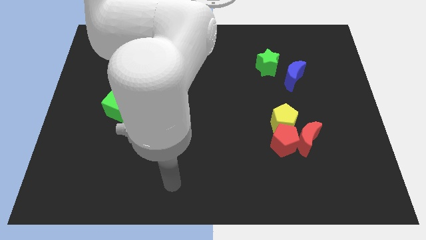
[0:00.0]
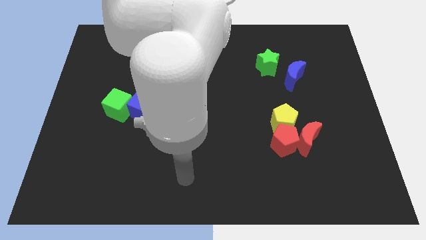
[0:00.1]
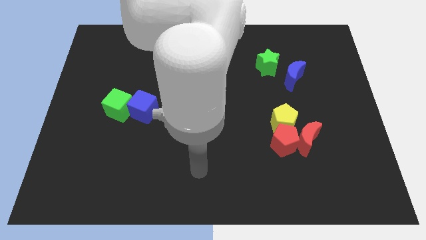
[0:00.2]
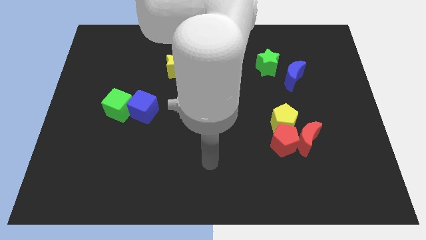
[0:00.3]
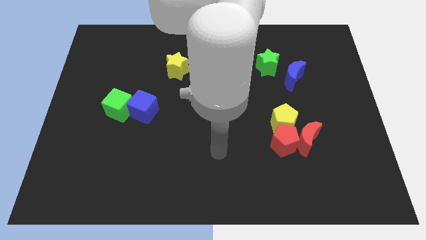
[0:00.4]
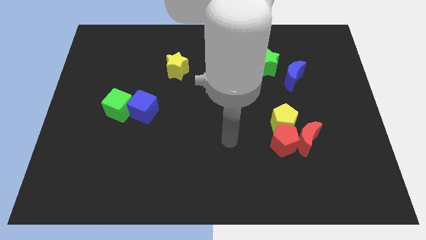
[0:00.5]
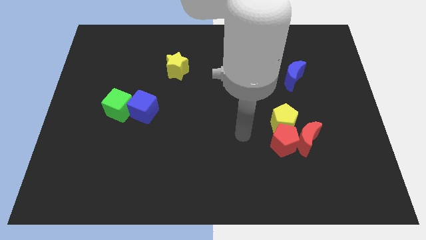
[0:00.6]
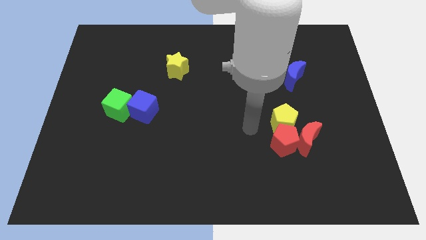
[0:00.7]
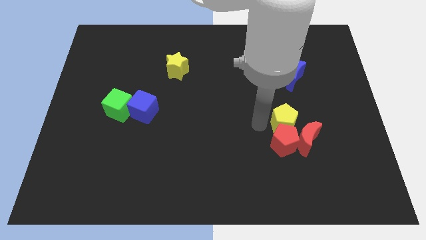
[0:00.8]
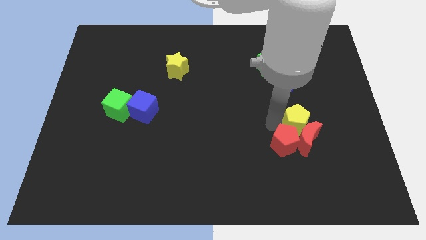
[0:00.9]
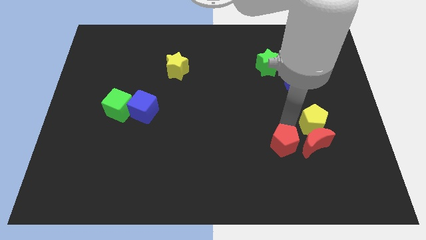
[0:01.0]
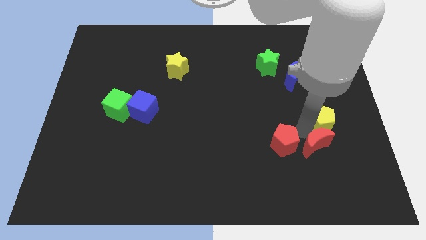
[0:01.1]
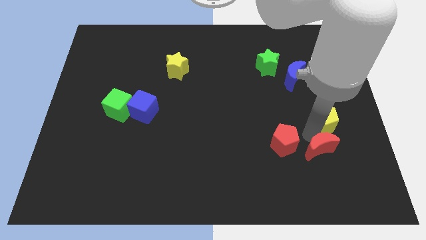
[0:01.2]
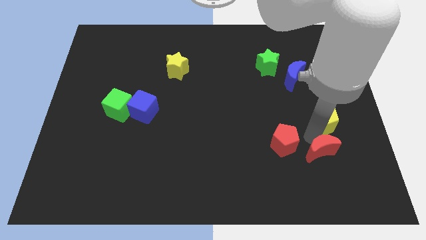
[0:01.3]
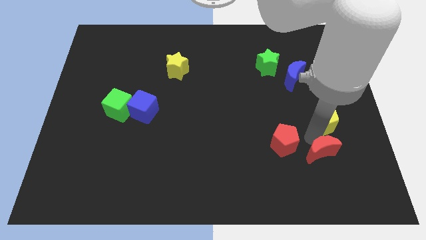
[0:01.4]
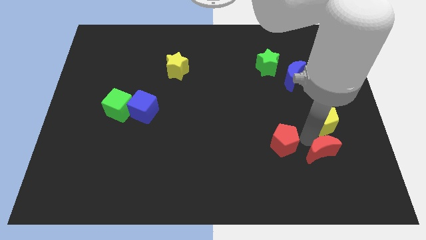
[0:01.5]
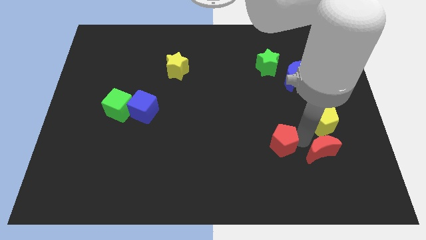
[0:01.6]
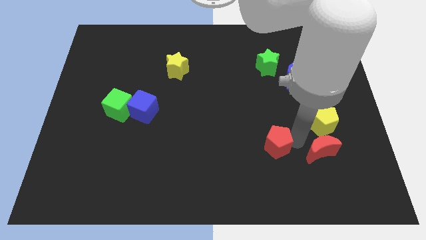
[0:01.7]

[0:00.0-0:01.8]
move the red pentagon away from the red moon and yellow pentagon

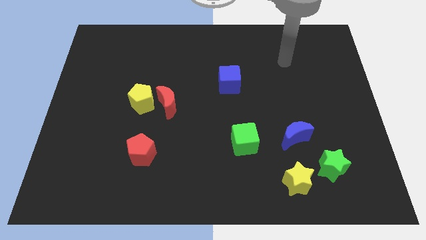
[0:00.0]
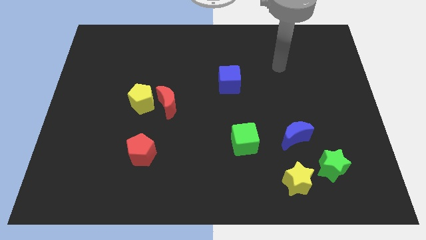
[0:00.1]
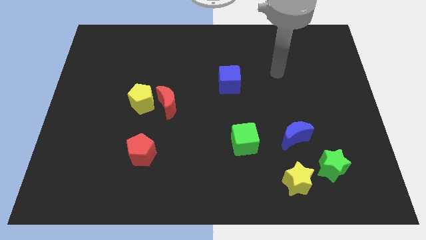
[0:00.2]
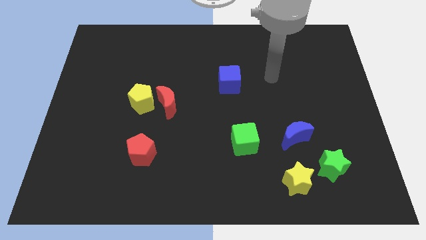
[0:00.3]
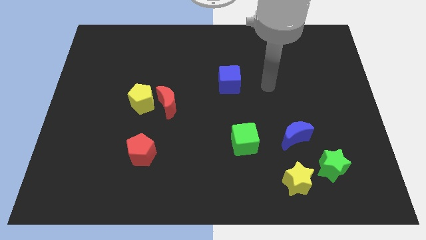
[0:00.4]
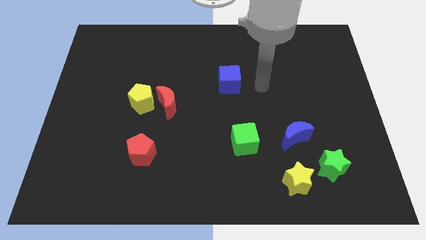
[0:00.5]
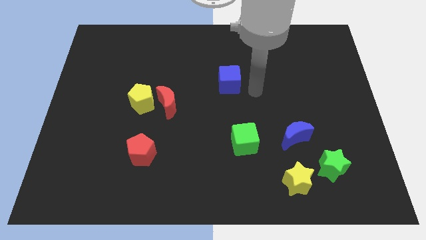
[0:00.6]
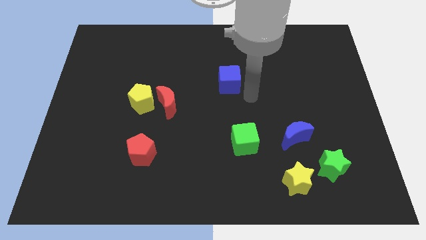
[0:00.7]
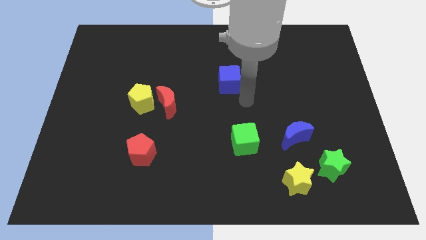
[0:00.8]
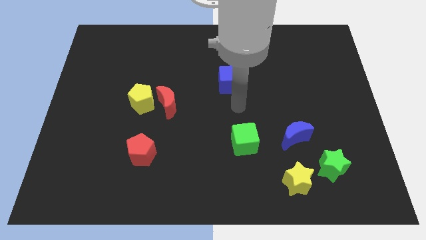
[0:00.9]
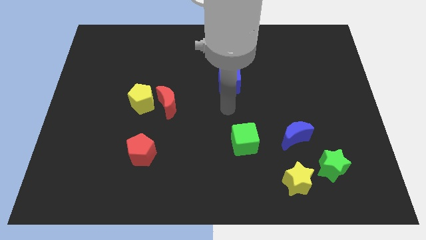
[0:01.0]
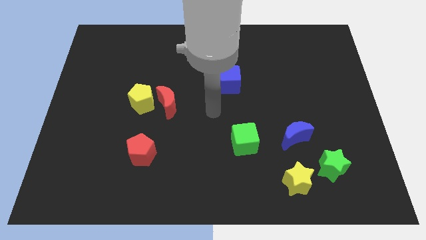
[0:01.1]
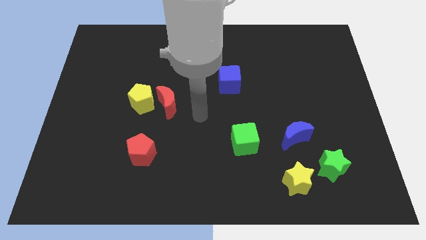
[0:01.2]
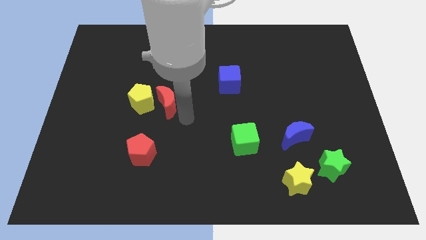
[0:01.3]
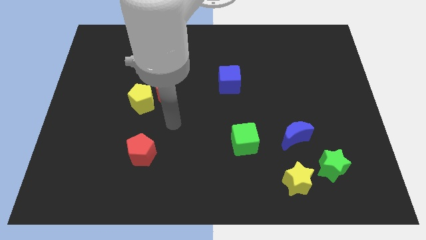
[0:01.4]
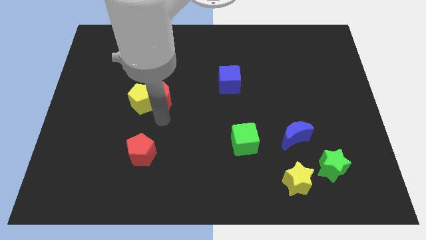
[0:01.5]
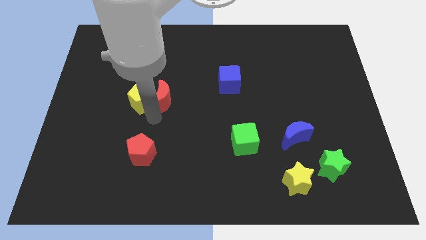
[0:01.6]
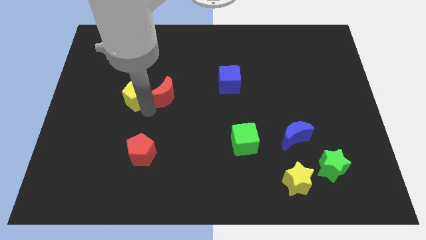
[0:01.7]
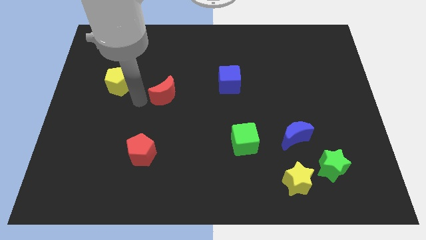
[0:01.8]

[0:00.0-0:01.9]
pull the red moon apart from the yellow pentagon

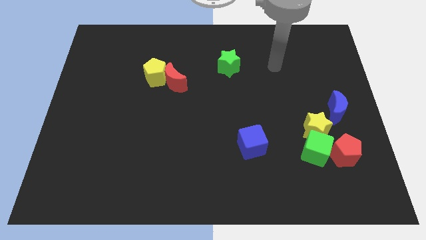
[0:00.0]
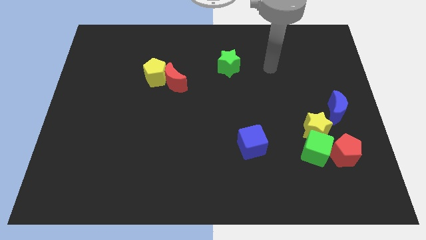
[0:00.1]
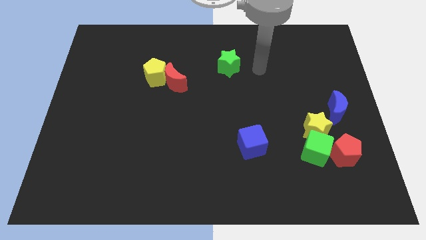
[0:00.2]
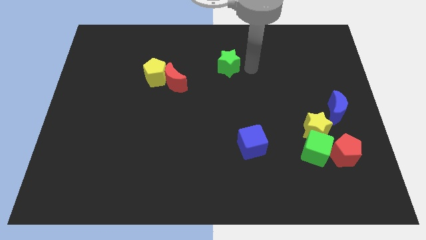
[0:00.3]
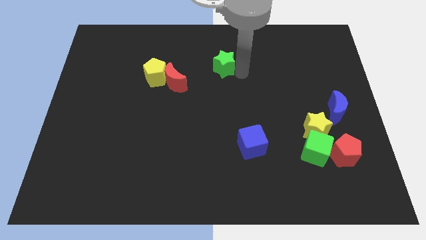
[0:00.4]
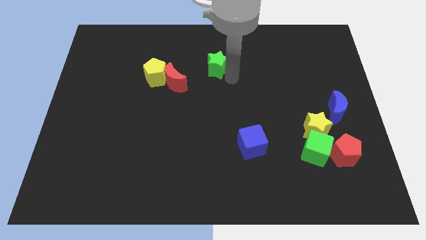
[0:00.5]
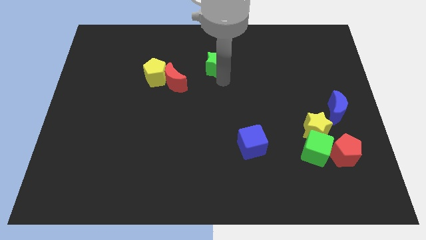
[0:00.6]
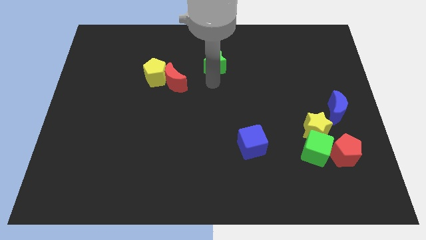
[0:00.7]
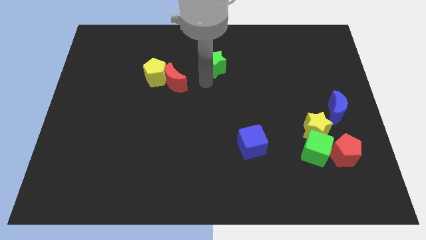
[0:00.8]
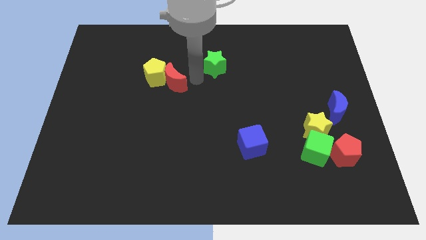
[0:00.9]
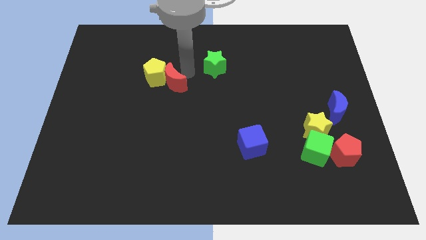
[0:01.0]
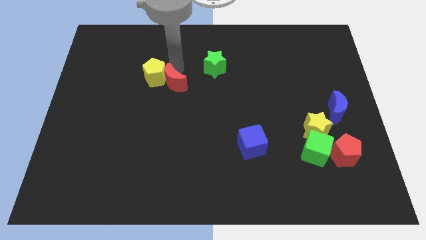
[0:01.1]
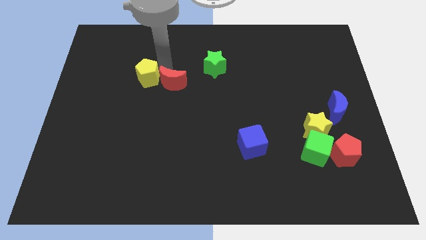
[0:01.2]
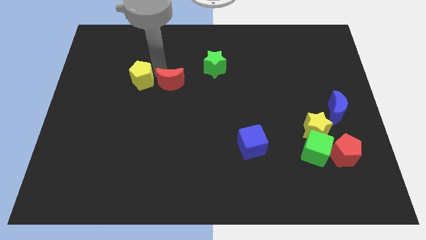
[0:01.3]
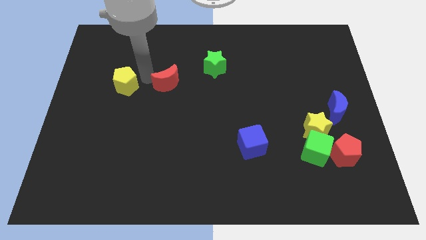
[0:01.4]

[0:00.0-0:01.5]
separate the red moon from the yellow pentagon

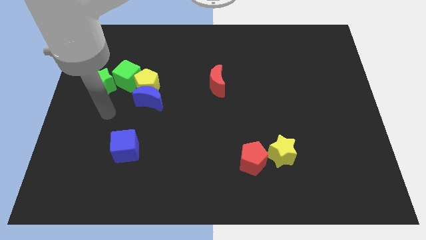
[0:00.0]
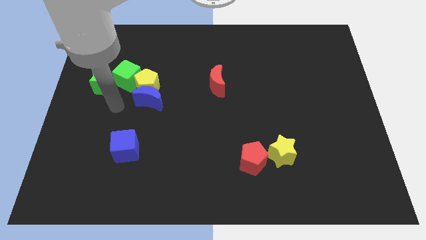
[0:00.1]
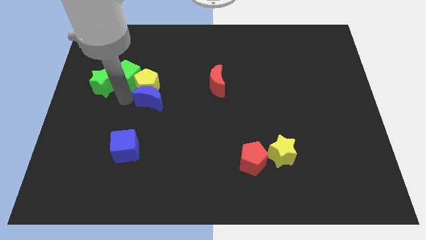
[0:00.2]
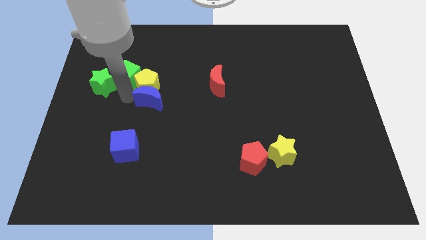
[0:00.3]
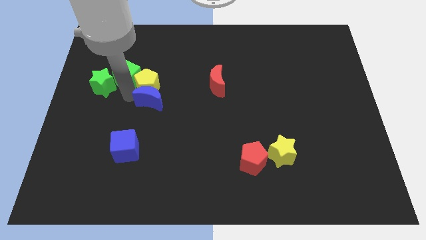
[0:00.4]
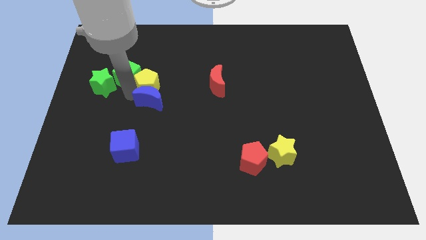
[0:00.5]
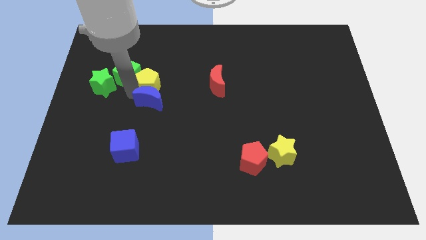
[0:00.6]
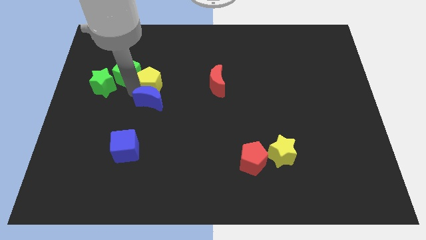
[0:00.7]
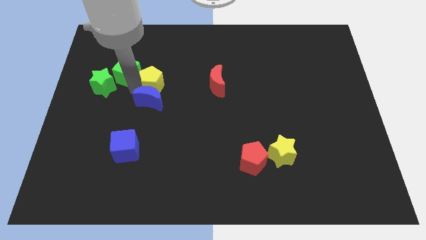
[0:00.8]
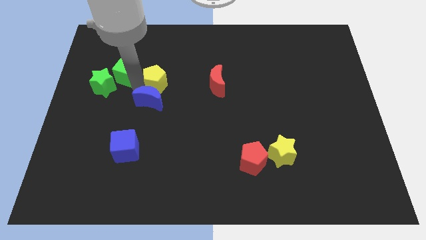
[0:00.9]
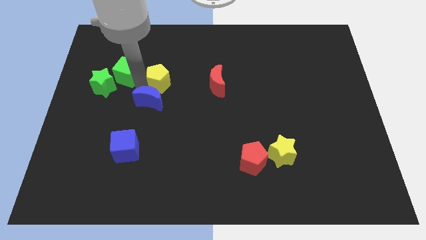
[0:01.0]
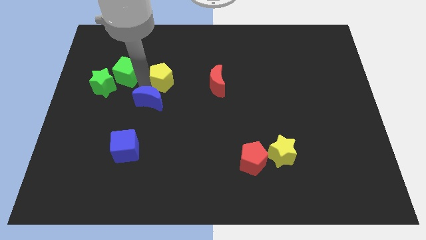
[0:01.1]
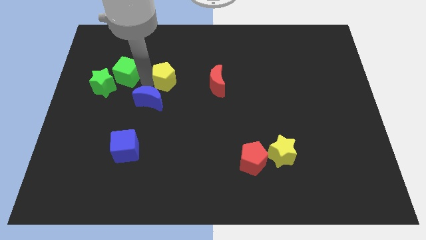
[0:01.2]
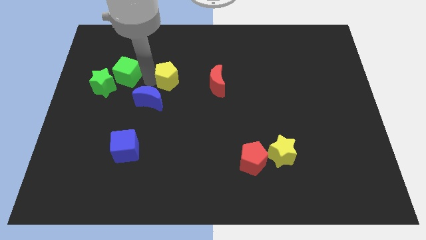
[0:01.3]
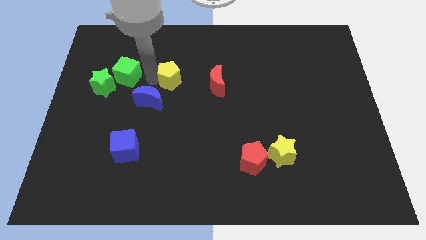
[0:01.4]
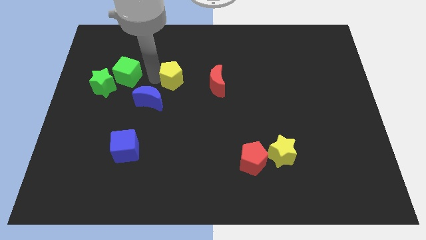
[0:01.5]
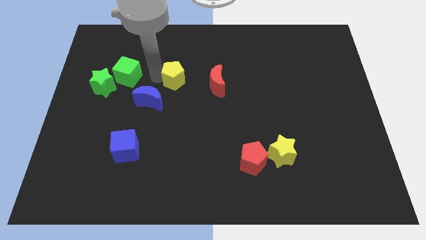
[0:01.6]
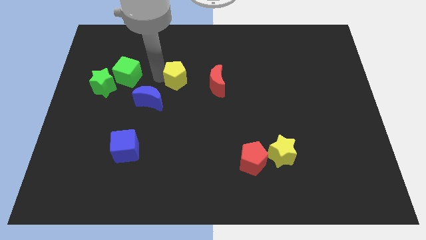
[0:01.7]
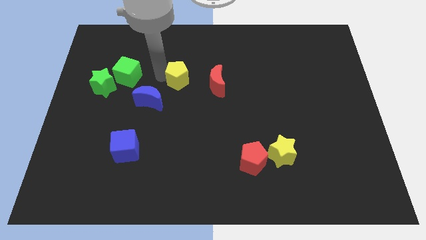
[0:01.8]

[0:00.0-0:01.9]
move the yellow pentagon away from the blue moon and green cube

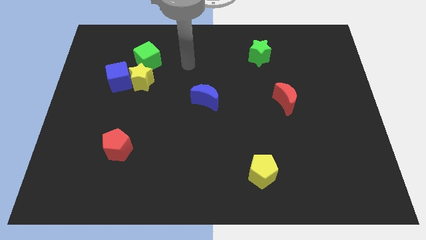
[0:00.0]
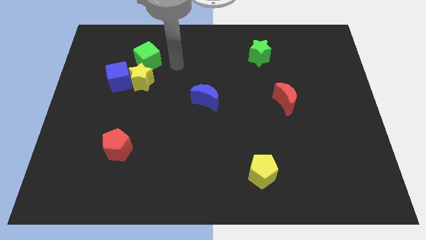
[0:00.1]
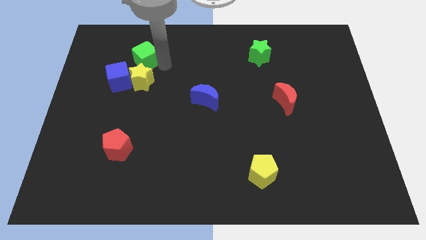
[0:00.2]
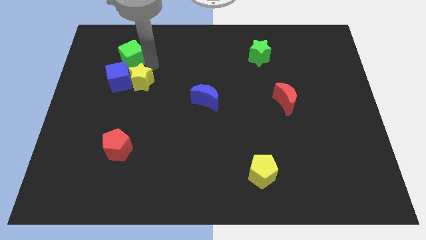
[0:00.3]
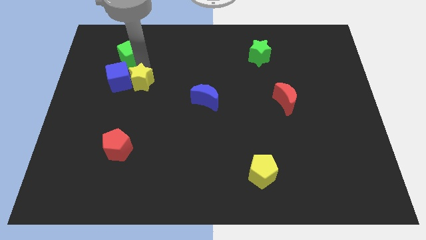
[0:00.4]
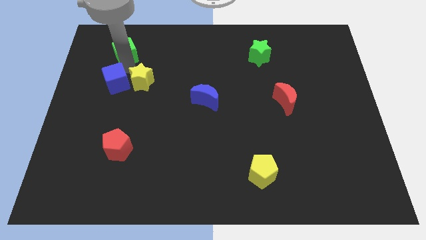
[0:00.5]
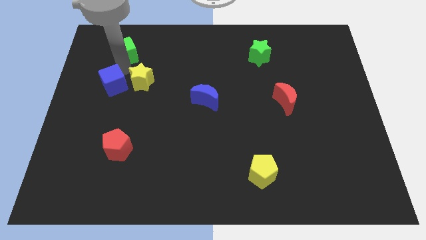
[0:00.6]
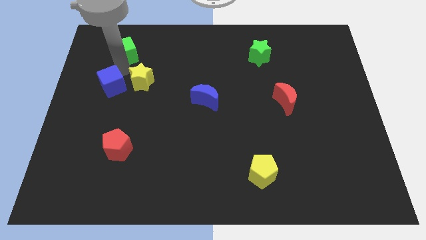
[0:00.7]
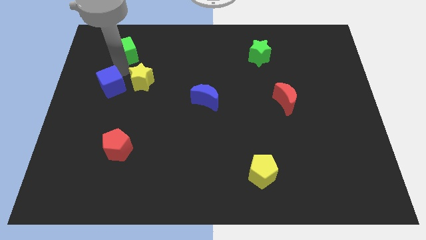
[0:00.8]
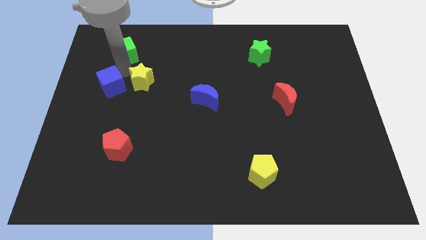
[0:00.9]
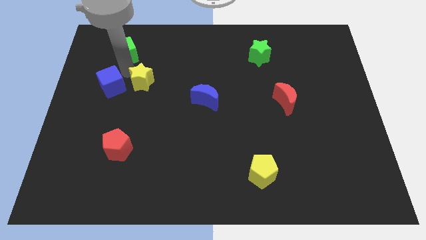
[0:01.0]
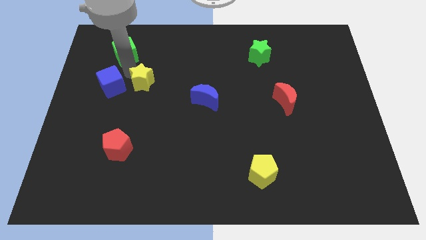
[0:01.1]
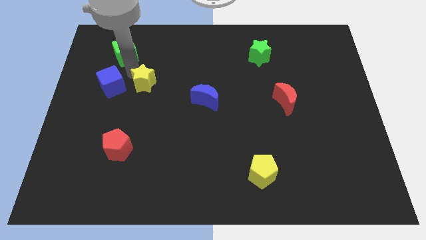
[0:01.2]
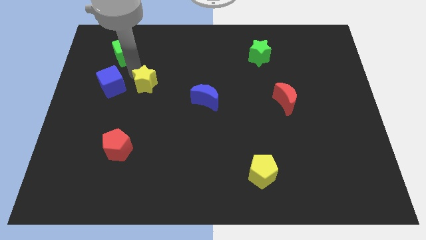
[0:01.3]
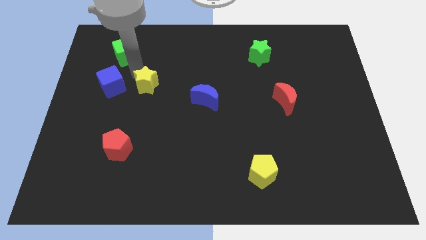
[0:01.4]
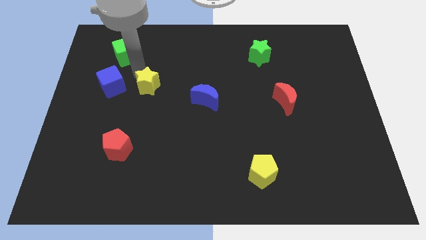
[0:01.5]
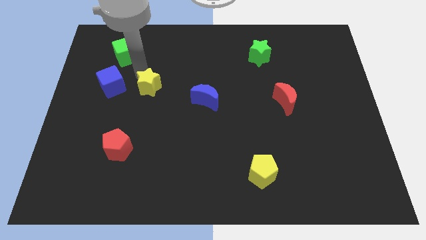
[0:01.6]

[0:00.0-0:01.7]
separate the yellow star from the blue cube and green cube

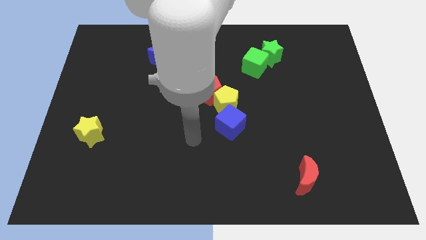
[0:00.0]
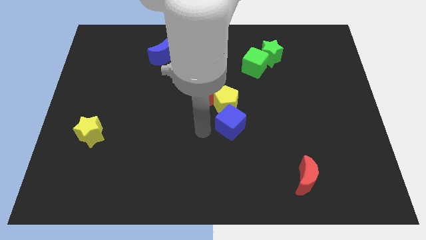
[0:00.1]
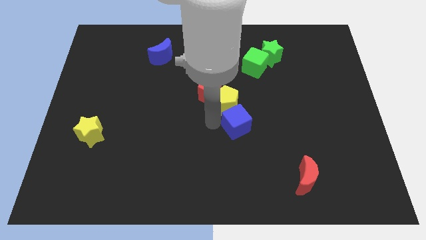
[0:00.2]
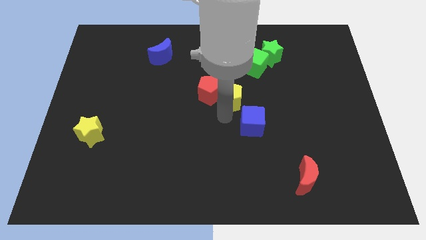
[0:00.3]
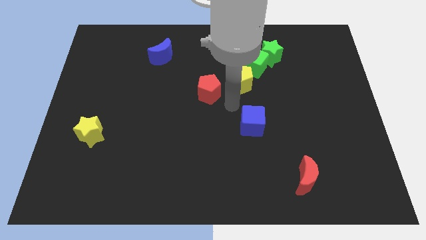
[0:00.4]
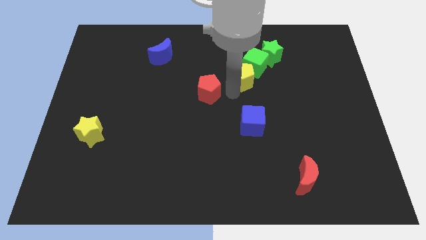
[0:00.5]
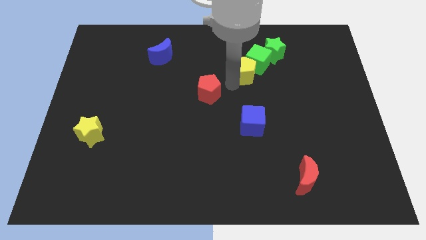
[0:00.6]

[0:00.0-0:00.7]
move the red pentagon away from the yellow pentagon
